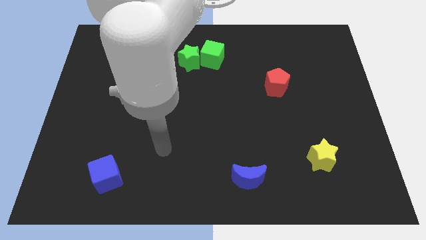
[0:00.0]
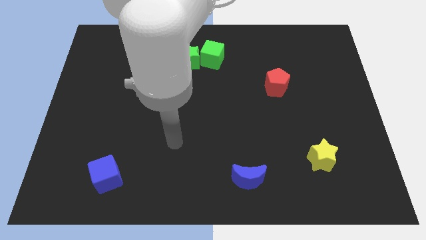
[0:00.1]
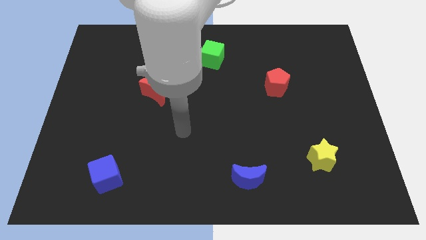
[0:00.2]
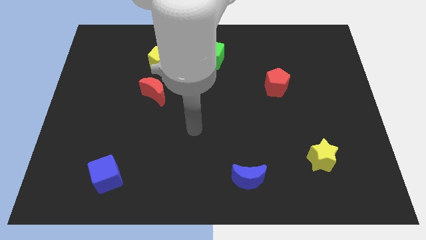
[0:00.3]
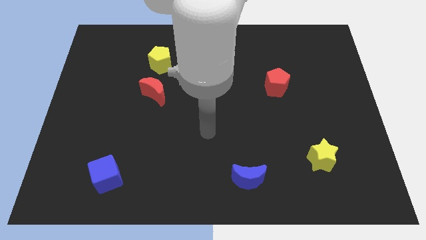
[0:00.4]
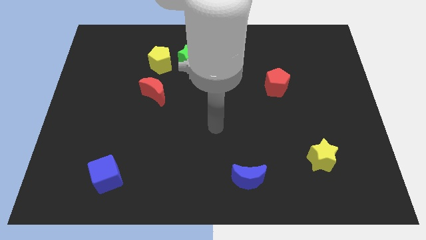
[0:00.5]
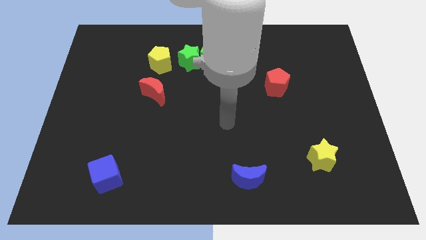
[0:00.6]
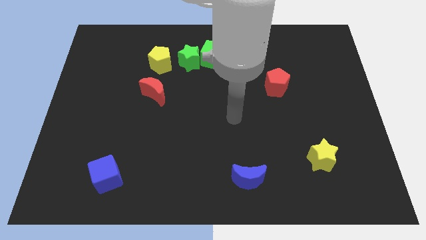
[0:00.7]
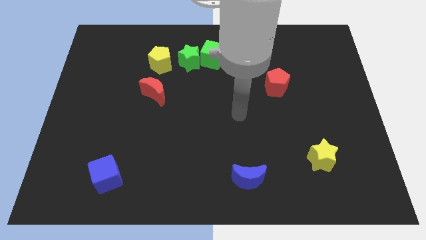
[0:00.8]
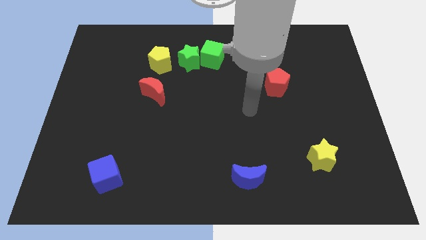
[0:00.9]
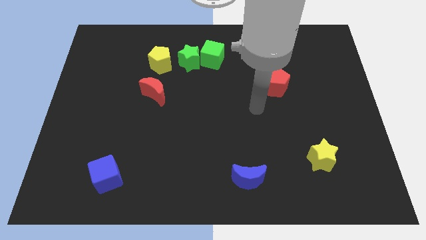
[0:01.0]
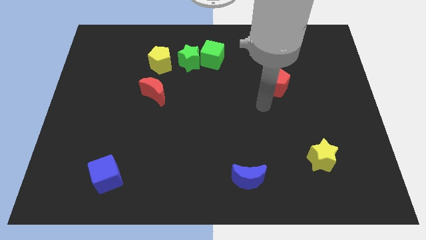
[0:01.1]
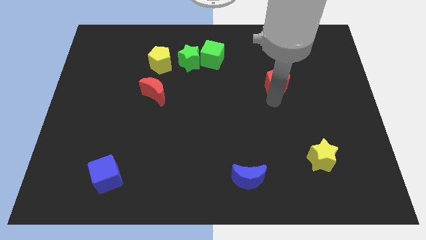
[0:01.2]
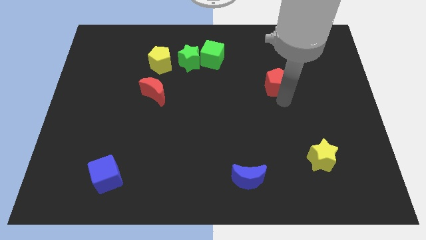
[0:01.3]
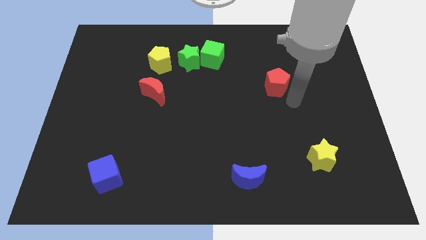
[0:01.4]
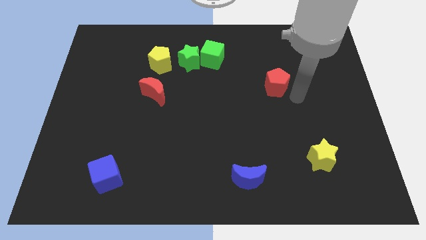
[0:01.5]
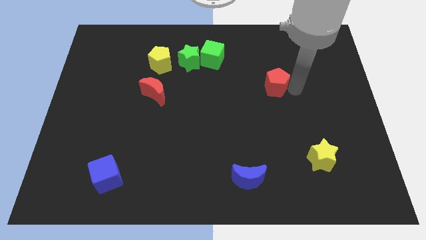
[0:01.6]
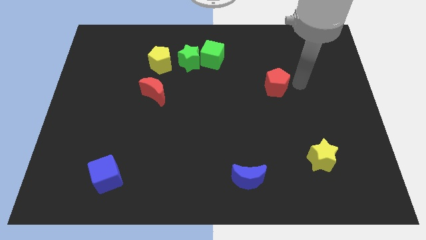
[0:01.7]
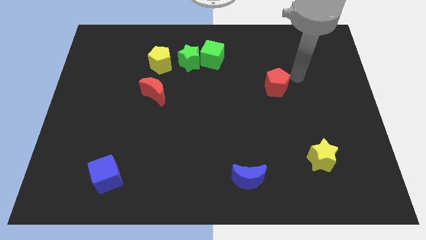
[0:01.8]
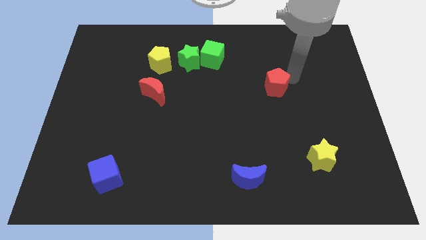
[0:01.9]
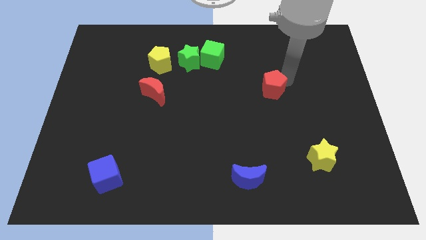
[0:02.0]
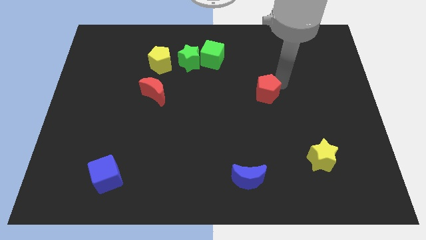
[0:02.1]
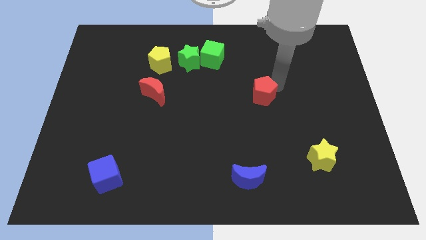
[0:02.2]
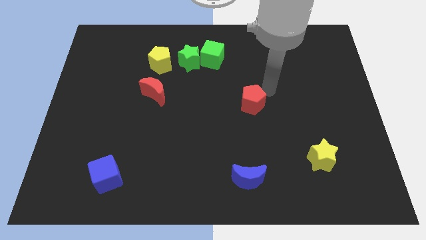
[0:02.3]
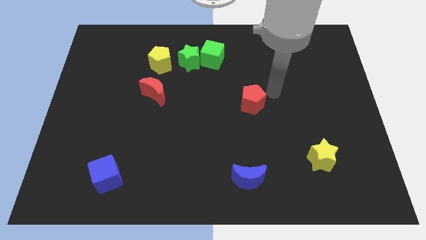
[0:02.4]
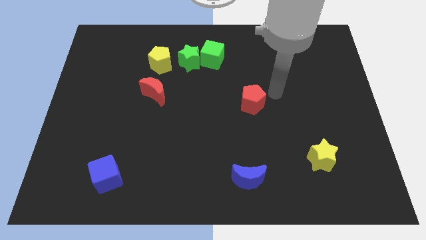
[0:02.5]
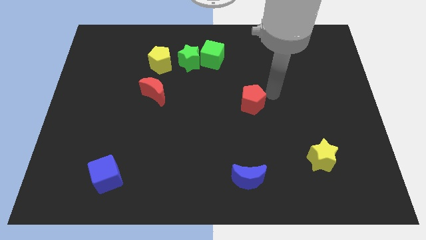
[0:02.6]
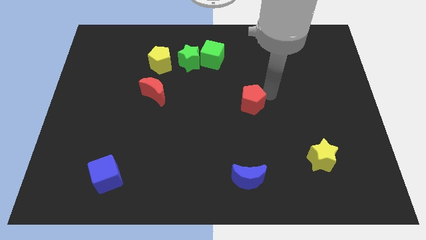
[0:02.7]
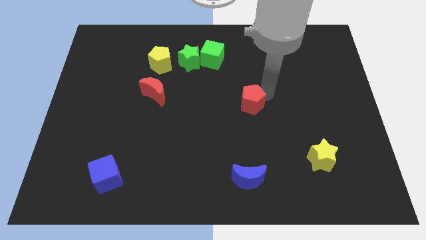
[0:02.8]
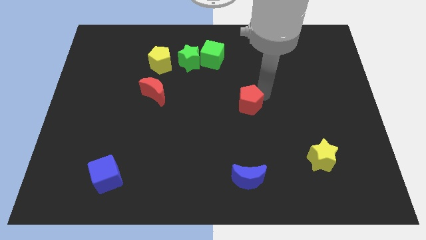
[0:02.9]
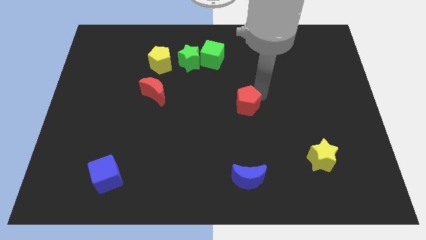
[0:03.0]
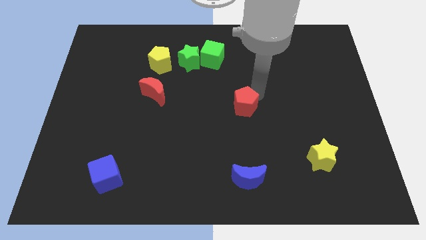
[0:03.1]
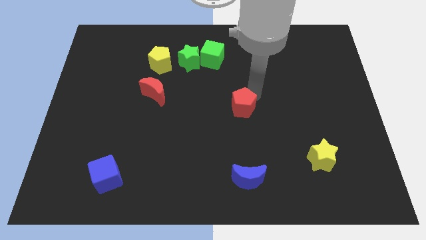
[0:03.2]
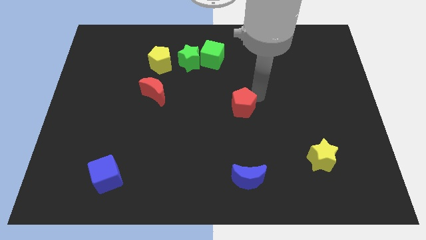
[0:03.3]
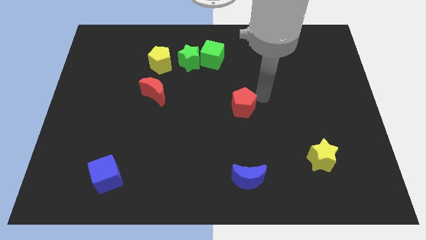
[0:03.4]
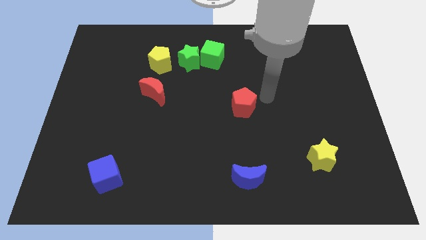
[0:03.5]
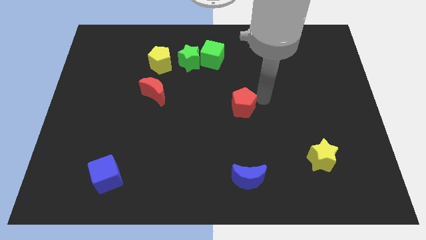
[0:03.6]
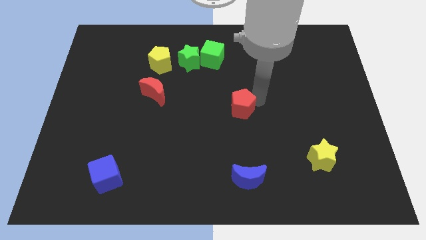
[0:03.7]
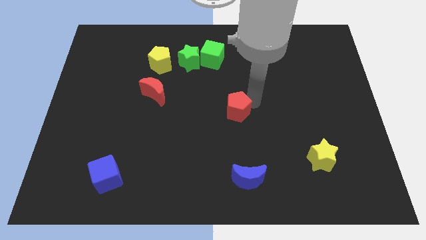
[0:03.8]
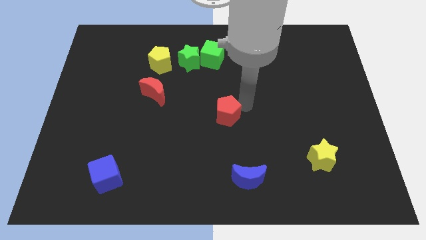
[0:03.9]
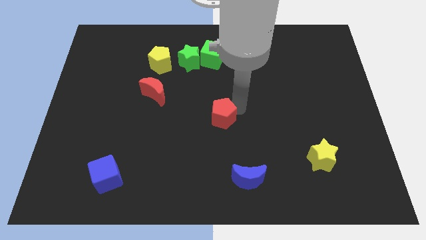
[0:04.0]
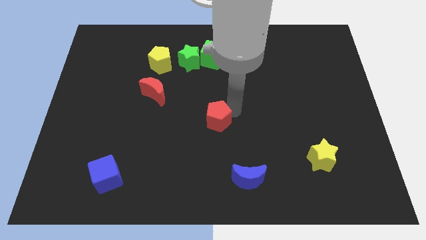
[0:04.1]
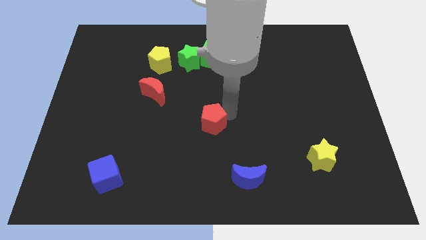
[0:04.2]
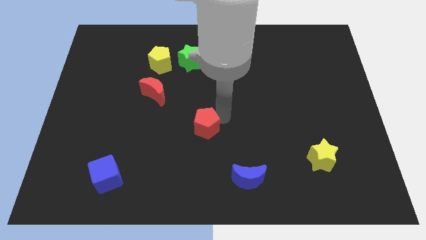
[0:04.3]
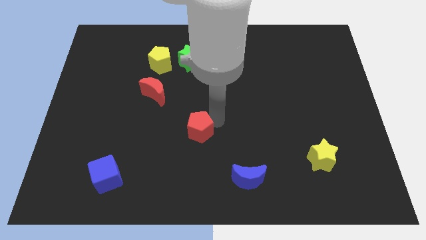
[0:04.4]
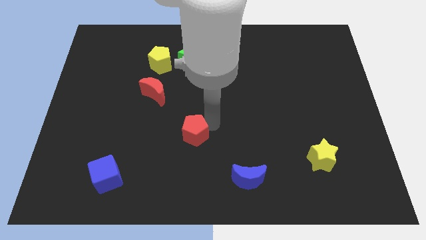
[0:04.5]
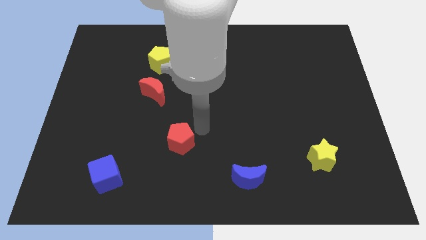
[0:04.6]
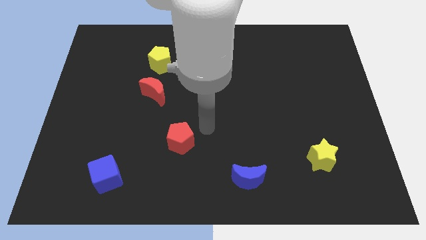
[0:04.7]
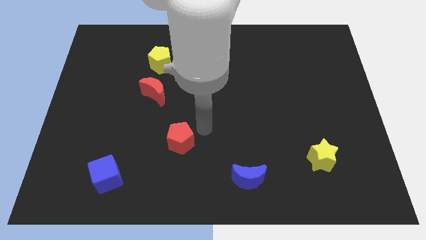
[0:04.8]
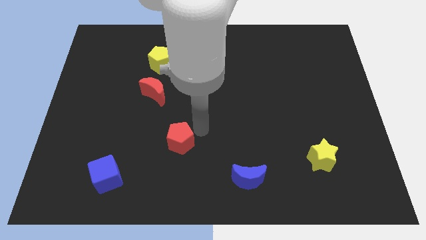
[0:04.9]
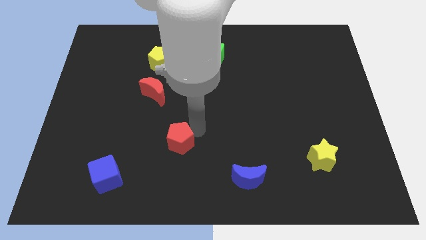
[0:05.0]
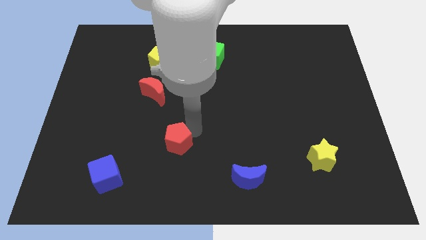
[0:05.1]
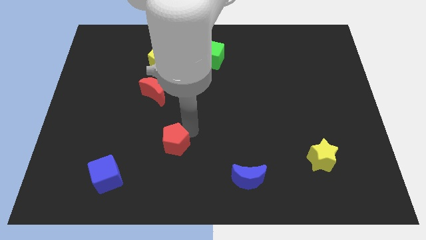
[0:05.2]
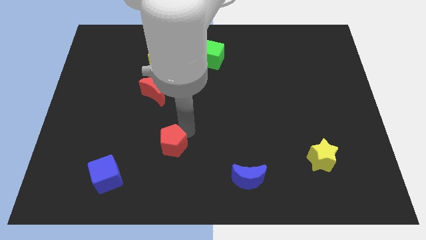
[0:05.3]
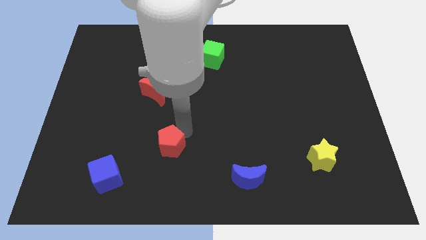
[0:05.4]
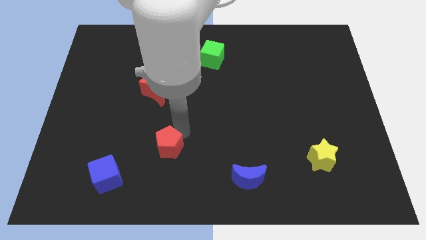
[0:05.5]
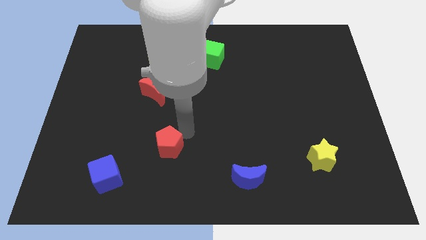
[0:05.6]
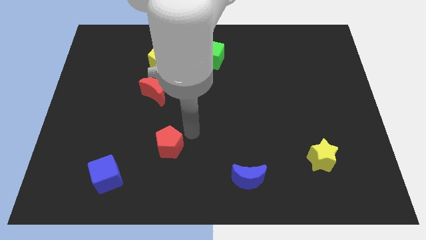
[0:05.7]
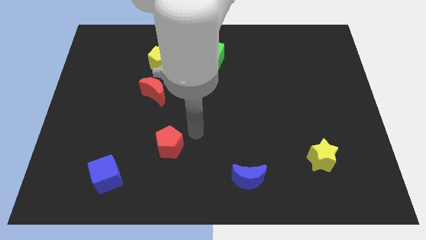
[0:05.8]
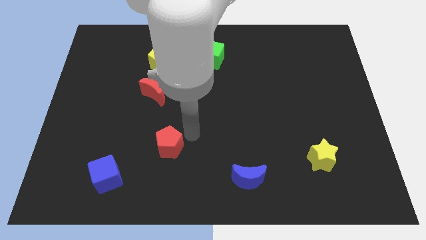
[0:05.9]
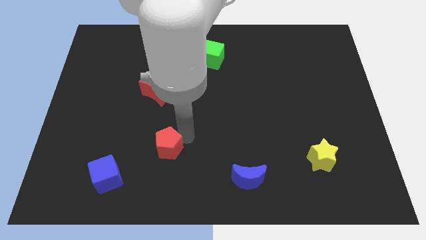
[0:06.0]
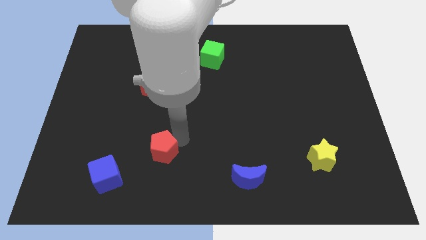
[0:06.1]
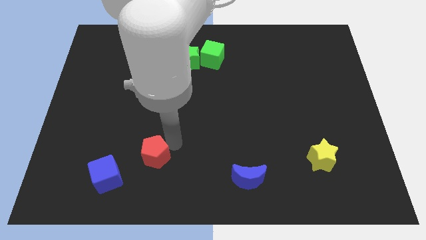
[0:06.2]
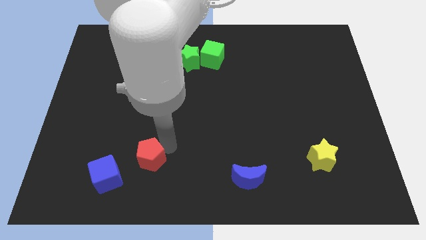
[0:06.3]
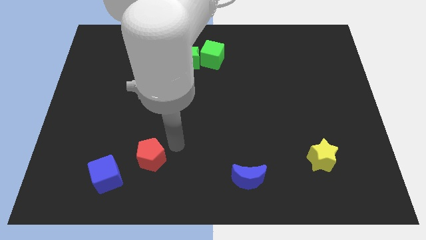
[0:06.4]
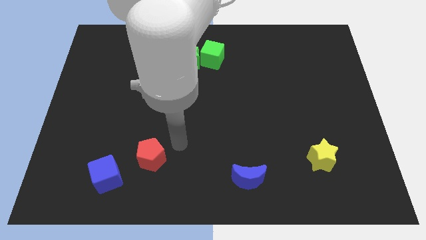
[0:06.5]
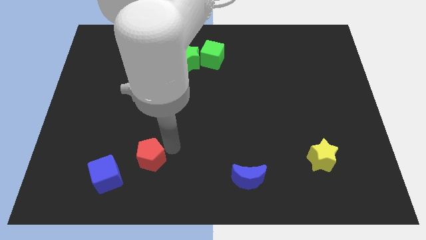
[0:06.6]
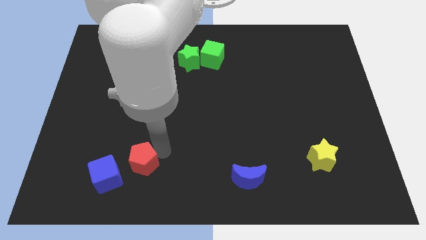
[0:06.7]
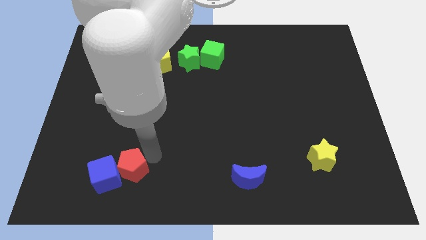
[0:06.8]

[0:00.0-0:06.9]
move the red pentagon close to the blue cube

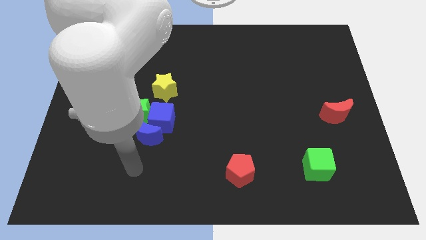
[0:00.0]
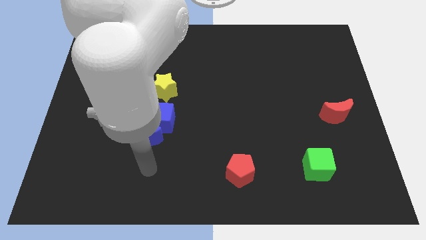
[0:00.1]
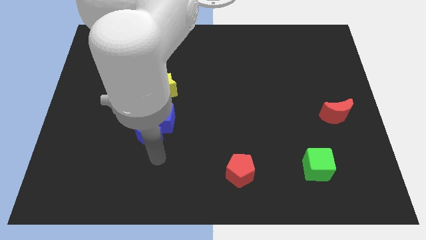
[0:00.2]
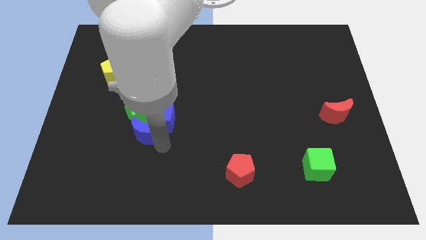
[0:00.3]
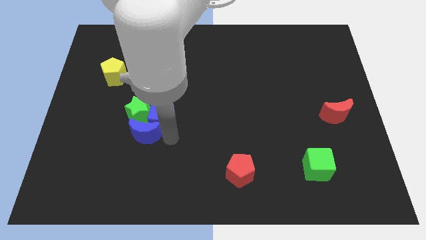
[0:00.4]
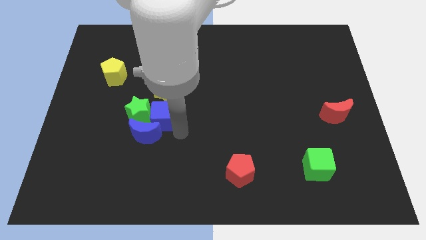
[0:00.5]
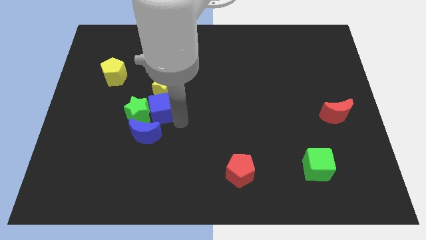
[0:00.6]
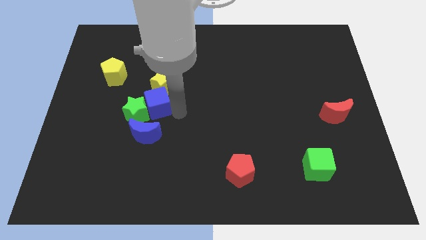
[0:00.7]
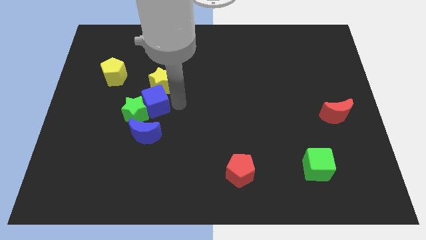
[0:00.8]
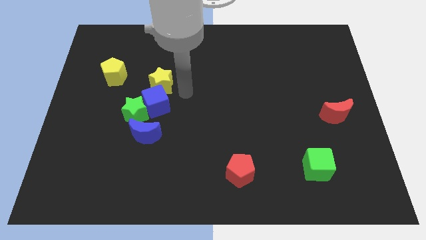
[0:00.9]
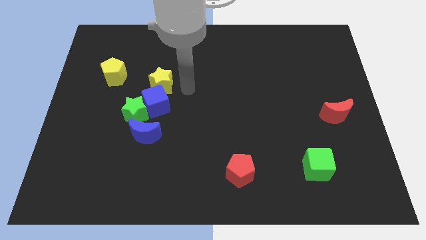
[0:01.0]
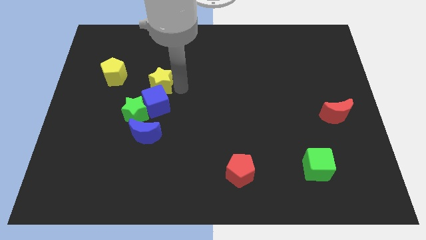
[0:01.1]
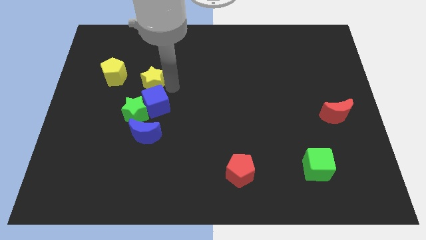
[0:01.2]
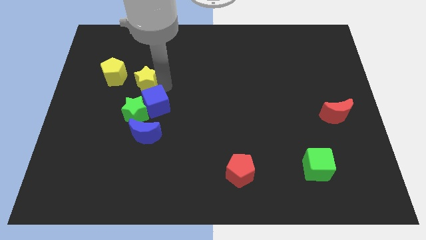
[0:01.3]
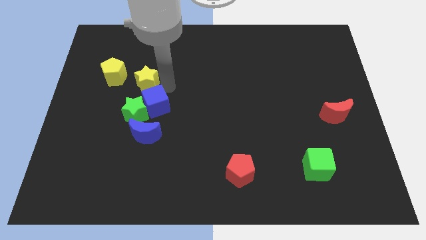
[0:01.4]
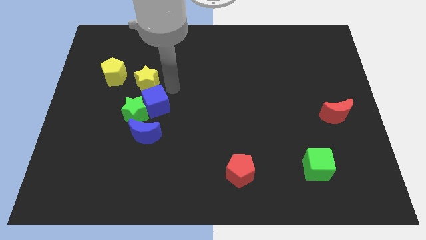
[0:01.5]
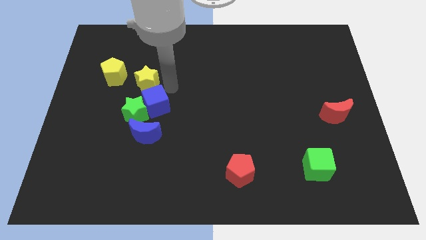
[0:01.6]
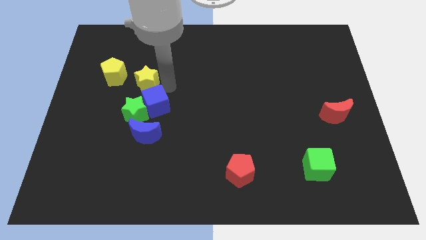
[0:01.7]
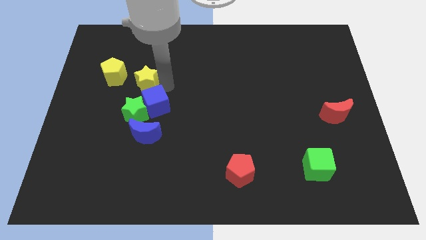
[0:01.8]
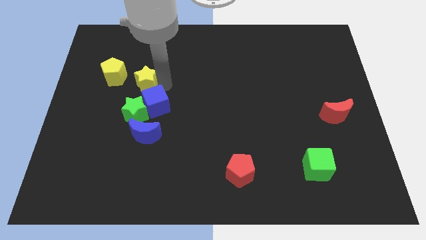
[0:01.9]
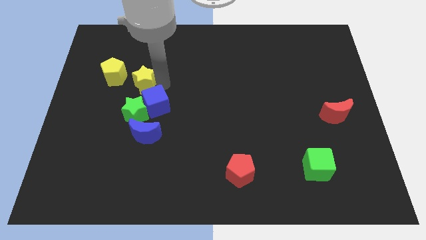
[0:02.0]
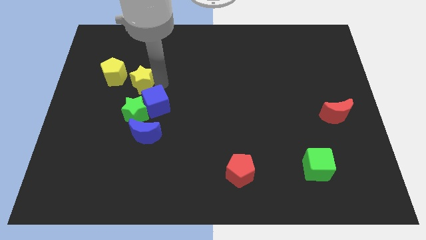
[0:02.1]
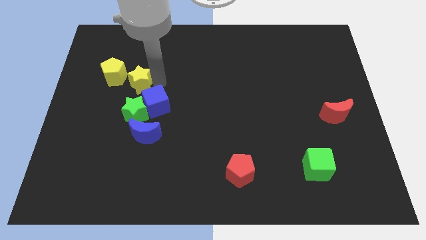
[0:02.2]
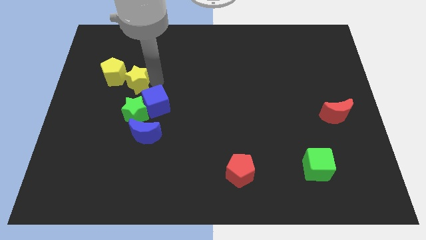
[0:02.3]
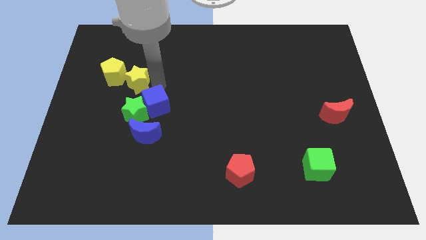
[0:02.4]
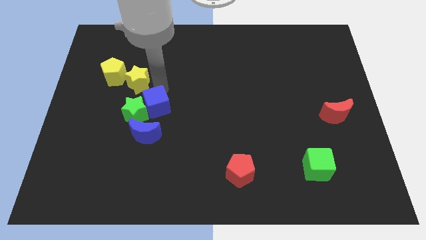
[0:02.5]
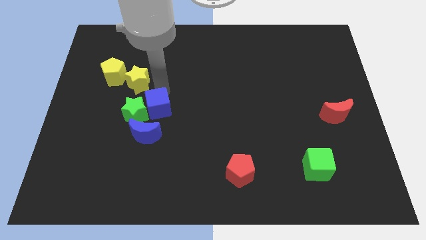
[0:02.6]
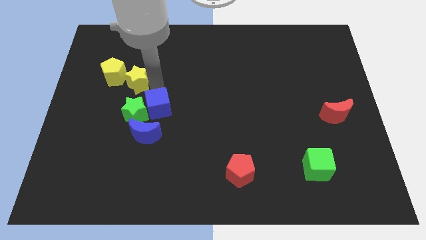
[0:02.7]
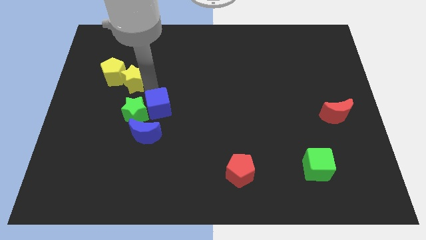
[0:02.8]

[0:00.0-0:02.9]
put the yellow star next to the yellow pentagon
